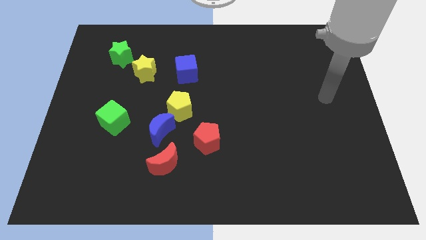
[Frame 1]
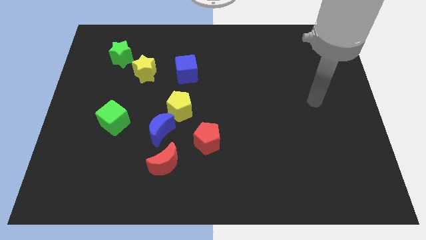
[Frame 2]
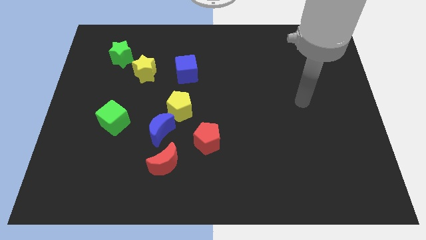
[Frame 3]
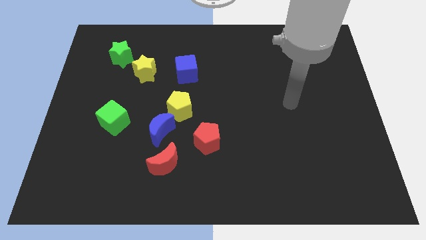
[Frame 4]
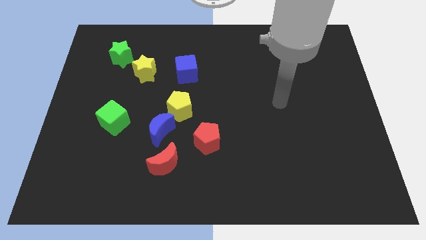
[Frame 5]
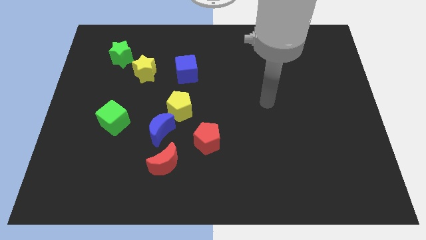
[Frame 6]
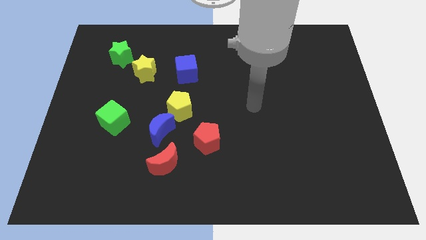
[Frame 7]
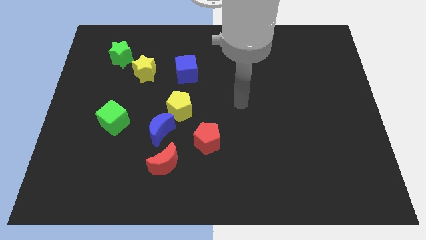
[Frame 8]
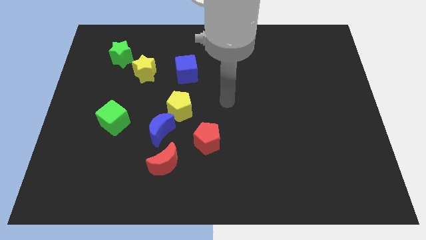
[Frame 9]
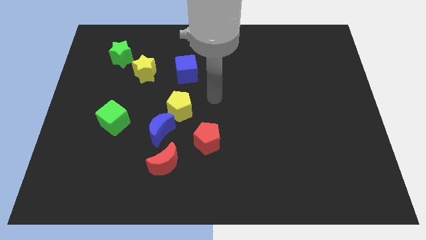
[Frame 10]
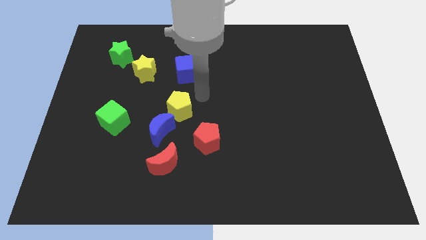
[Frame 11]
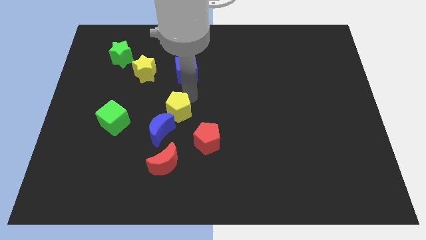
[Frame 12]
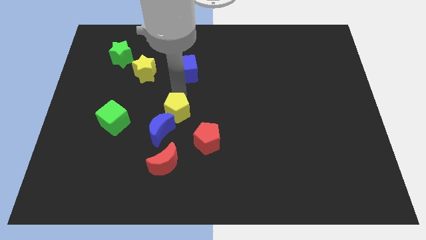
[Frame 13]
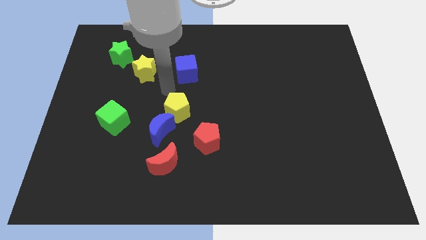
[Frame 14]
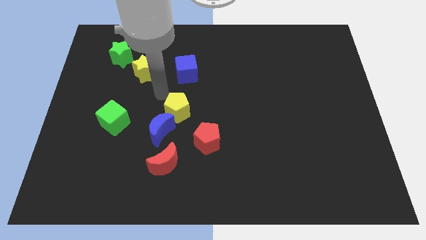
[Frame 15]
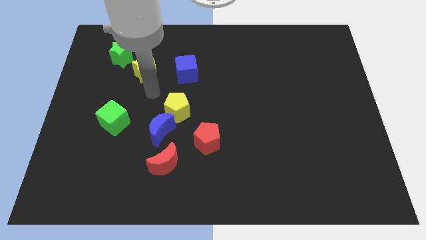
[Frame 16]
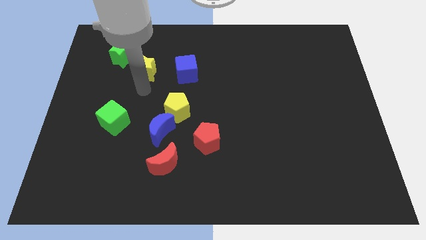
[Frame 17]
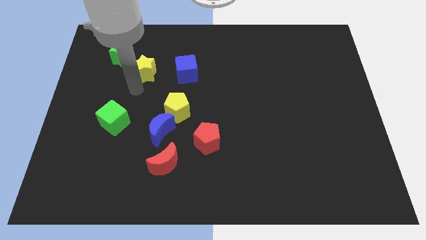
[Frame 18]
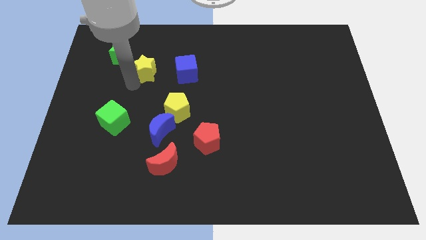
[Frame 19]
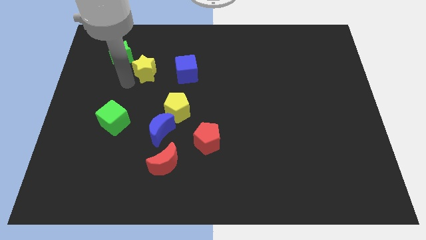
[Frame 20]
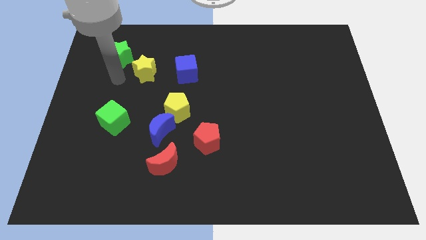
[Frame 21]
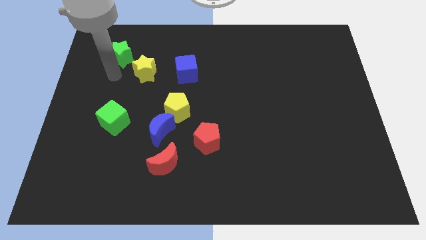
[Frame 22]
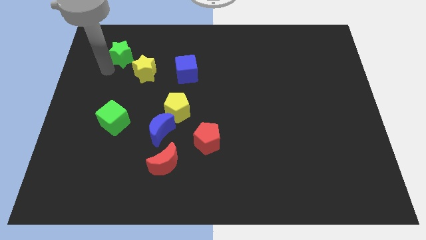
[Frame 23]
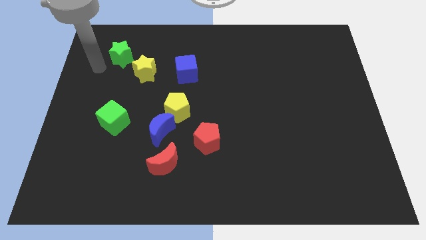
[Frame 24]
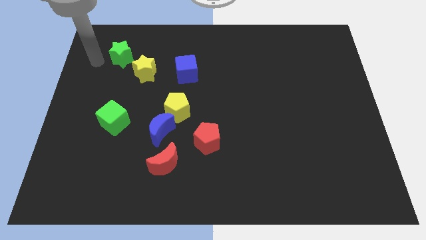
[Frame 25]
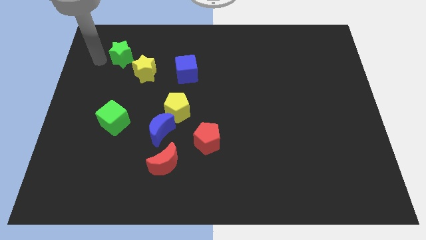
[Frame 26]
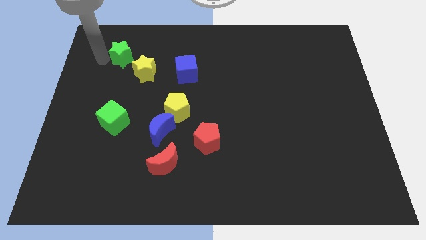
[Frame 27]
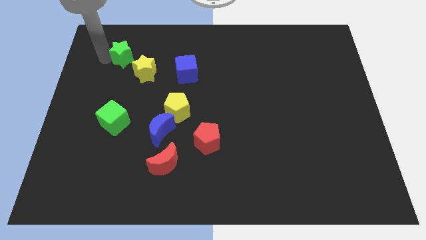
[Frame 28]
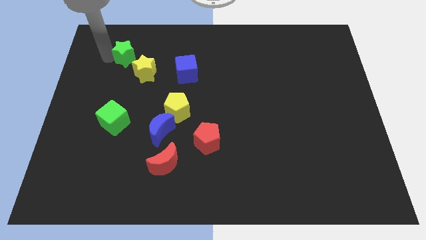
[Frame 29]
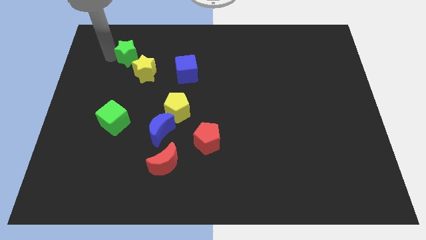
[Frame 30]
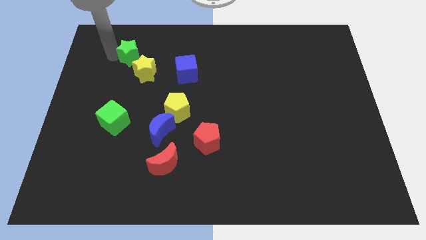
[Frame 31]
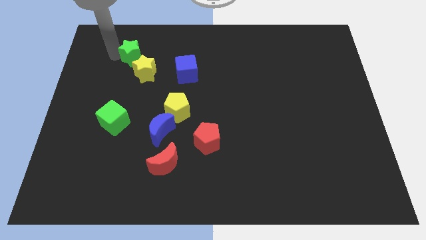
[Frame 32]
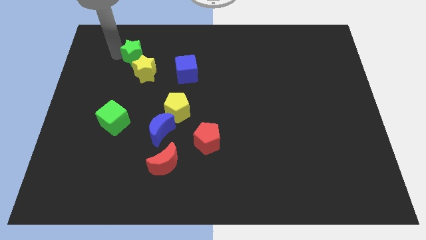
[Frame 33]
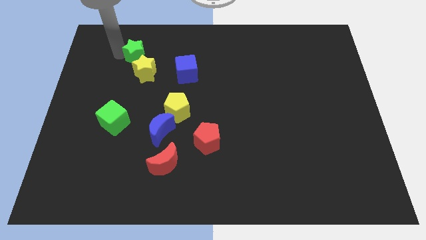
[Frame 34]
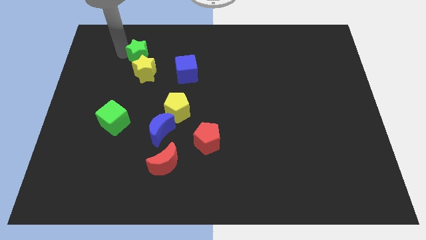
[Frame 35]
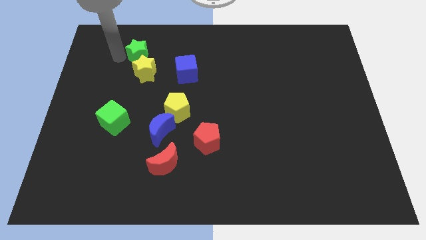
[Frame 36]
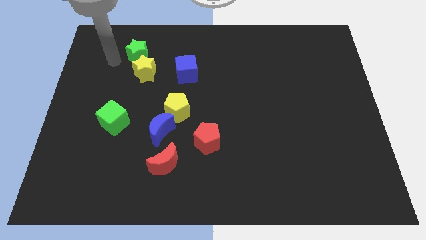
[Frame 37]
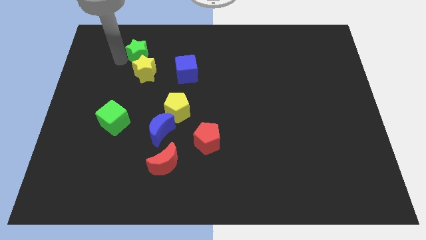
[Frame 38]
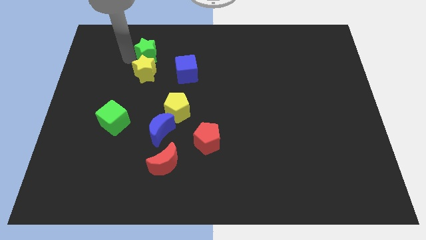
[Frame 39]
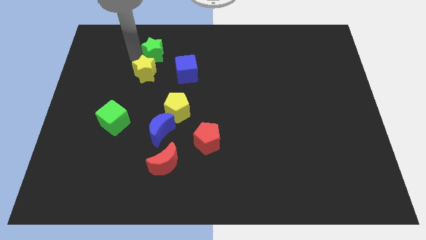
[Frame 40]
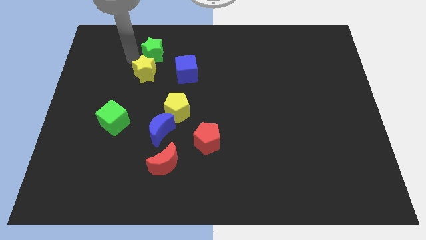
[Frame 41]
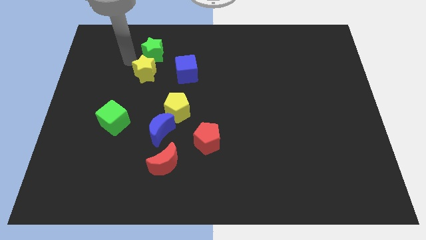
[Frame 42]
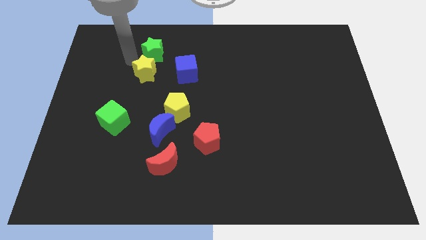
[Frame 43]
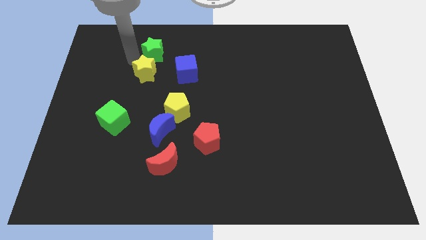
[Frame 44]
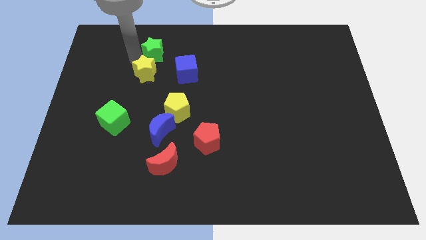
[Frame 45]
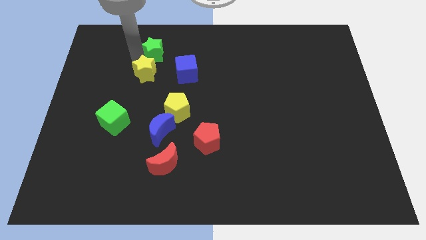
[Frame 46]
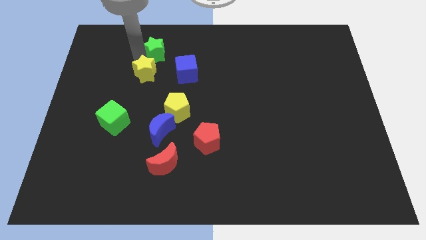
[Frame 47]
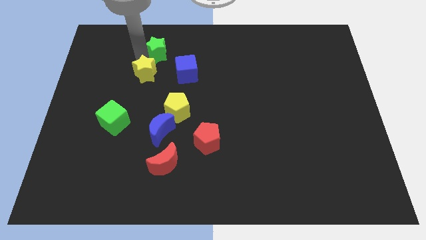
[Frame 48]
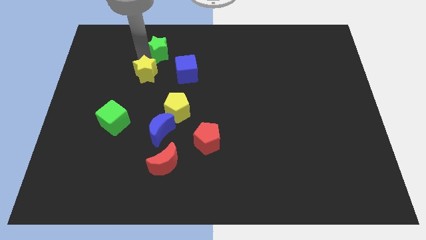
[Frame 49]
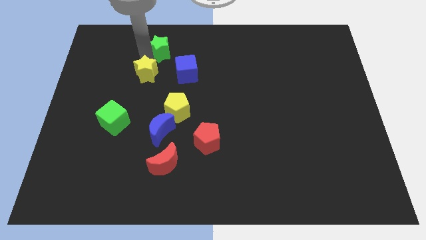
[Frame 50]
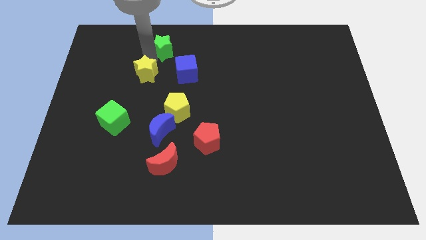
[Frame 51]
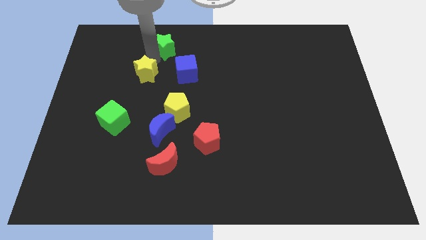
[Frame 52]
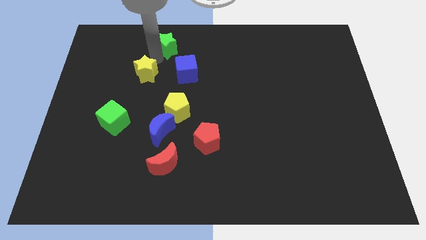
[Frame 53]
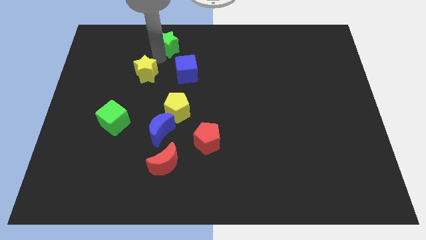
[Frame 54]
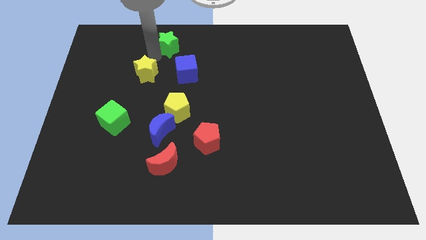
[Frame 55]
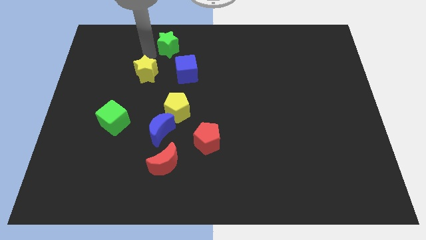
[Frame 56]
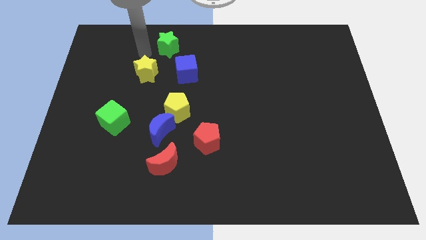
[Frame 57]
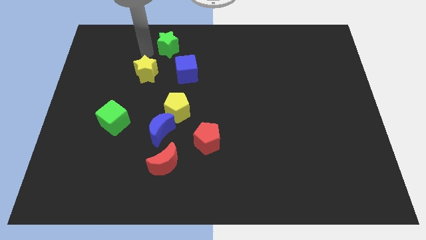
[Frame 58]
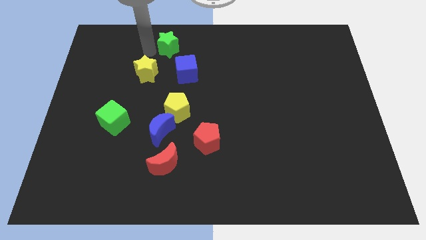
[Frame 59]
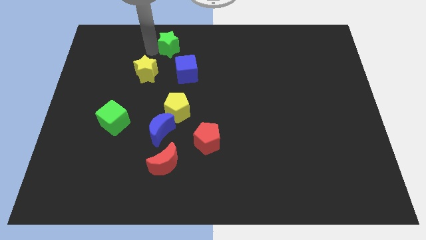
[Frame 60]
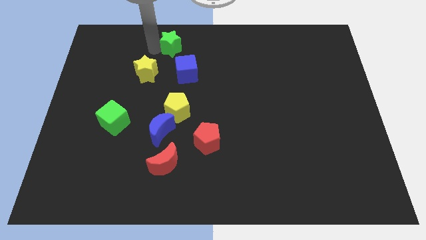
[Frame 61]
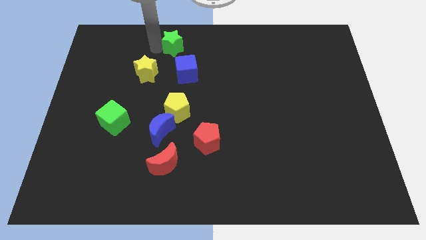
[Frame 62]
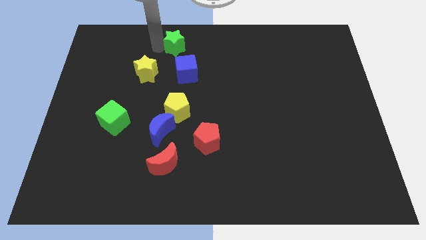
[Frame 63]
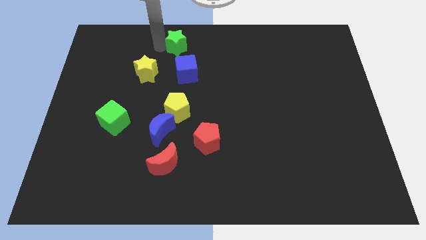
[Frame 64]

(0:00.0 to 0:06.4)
put the green star to the top
